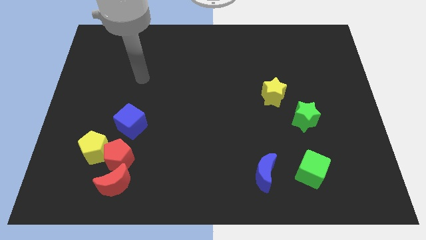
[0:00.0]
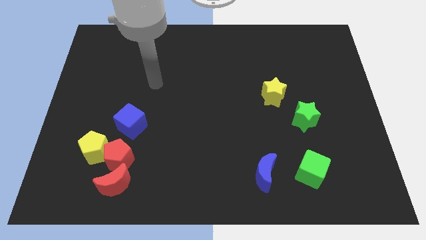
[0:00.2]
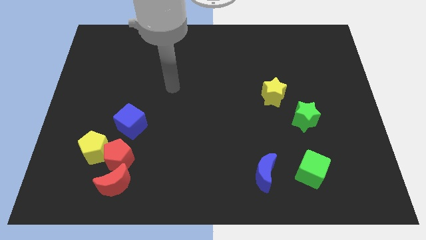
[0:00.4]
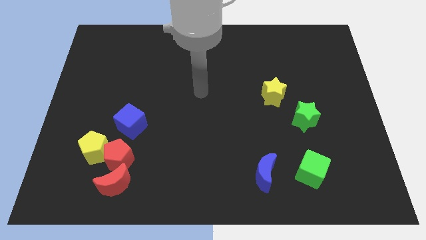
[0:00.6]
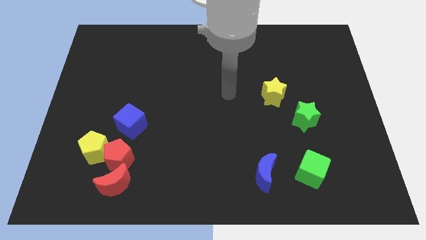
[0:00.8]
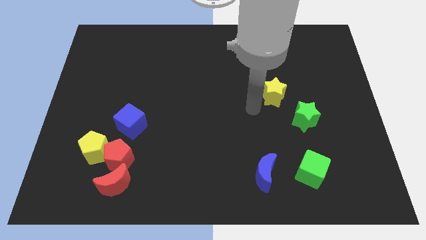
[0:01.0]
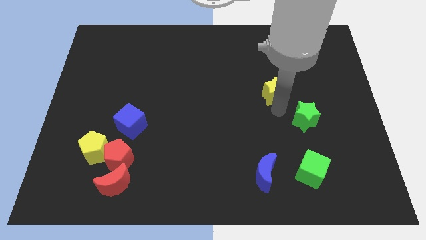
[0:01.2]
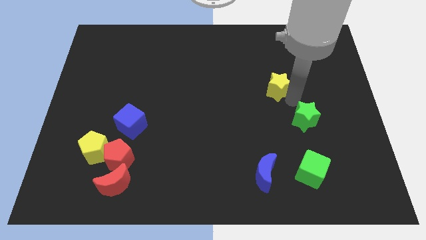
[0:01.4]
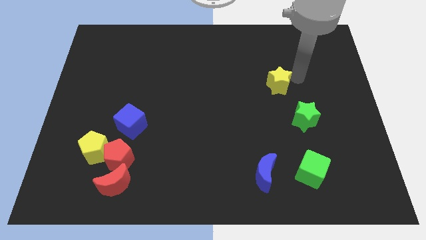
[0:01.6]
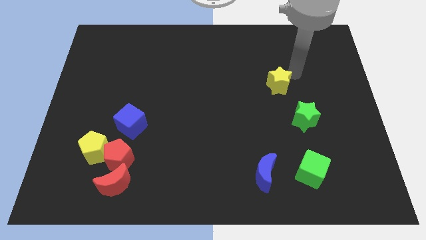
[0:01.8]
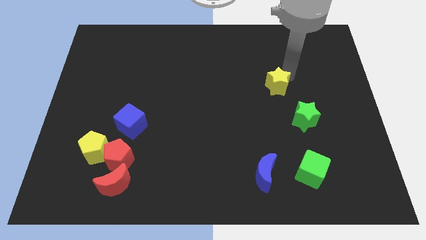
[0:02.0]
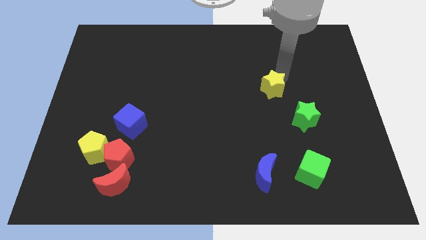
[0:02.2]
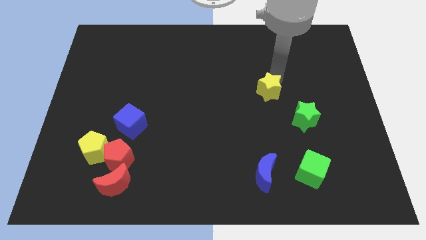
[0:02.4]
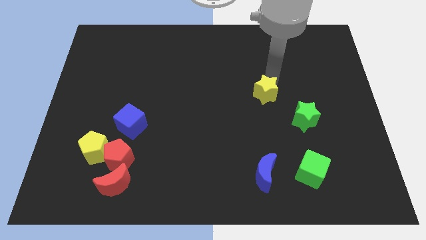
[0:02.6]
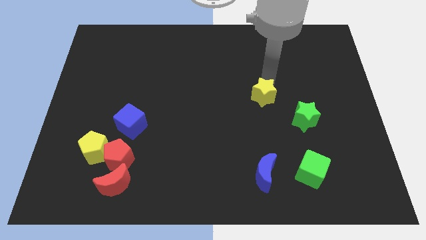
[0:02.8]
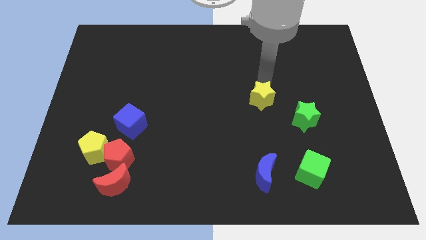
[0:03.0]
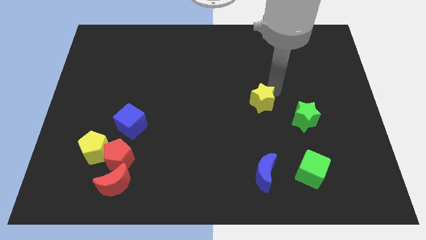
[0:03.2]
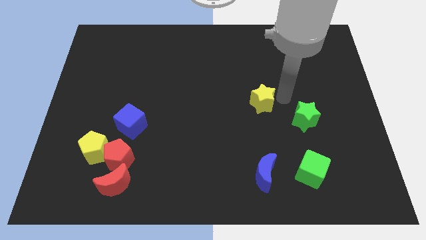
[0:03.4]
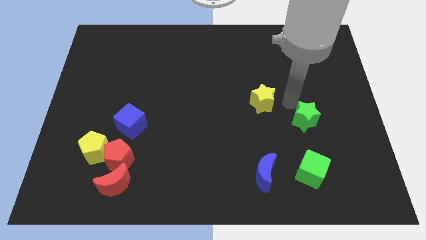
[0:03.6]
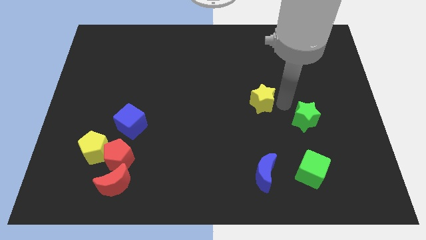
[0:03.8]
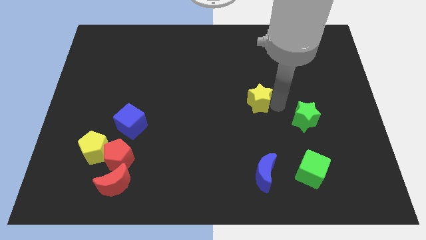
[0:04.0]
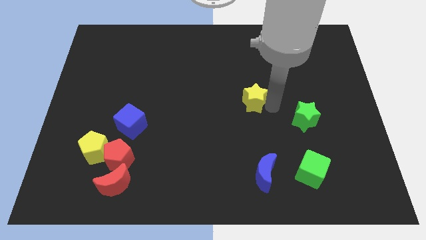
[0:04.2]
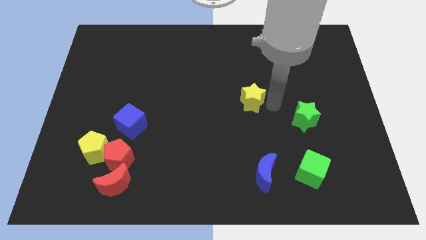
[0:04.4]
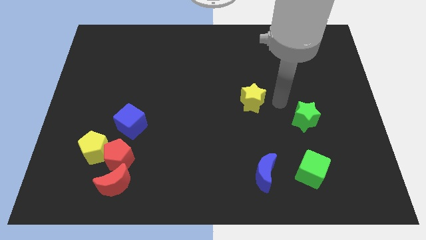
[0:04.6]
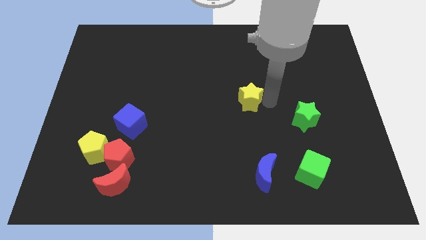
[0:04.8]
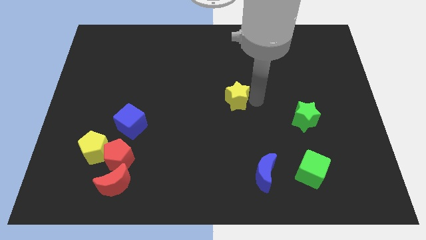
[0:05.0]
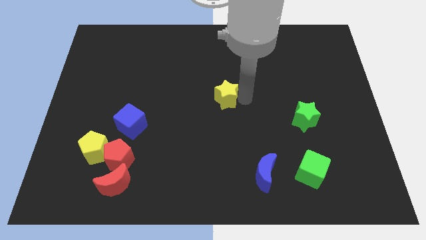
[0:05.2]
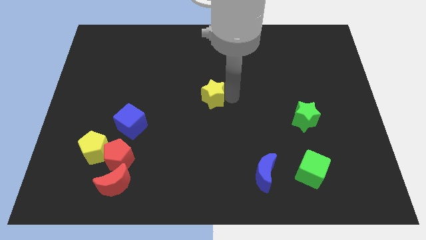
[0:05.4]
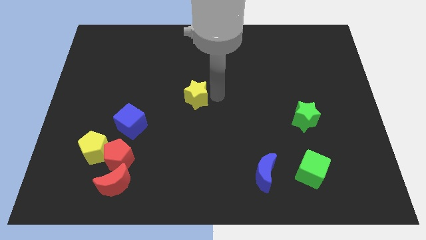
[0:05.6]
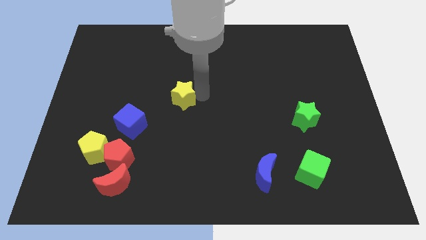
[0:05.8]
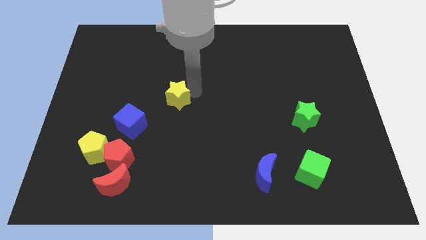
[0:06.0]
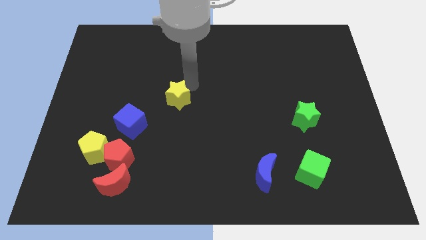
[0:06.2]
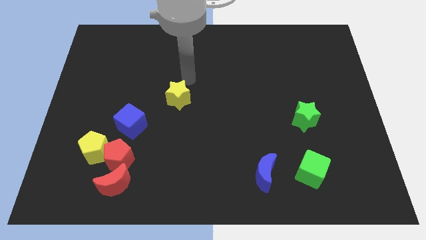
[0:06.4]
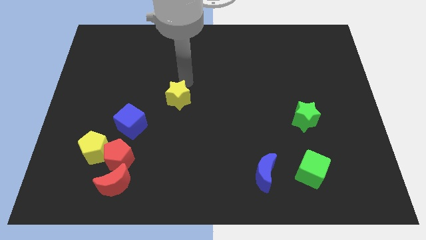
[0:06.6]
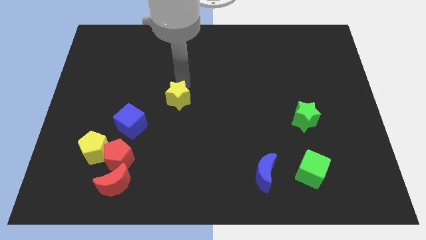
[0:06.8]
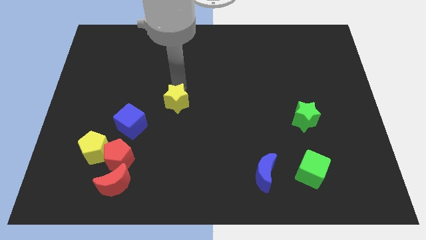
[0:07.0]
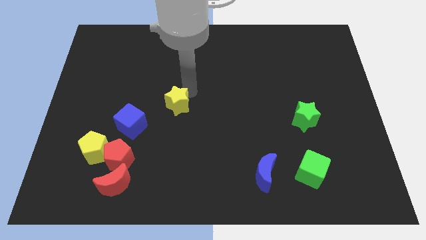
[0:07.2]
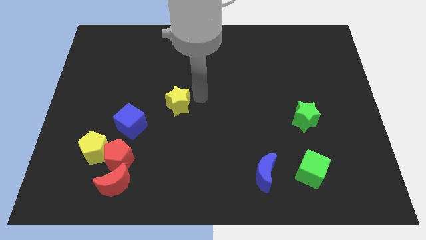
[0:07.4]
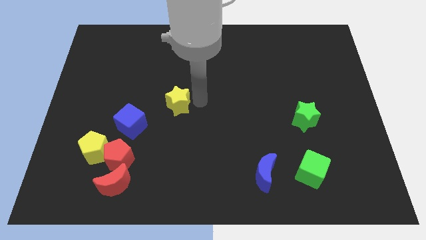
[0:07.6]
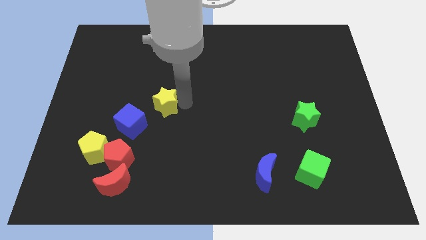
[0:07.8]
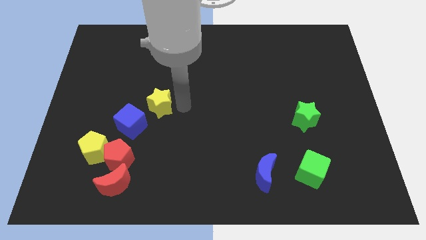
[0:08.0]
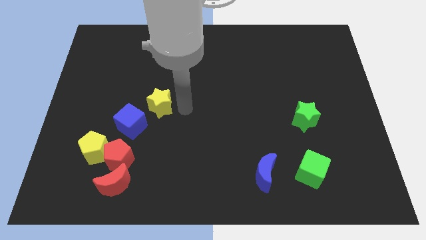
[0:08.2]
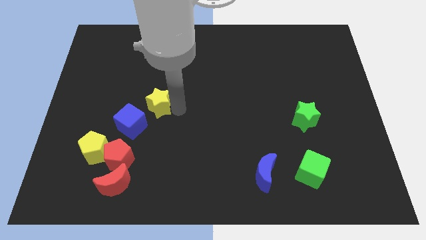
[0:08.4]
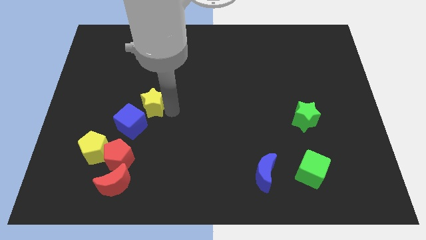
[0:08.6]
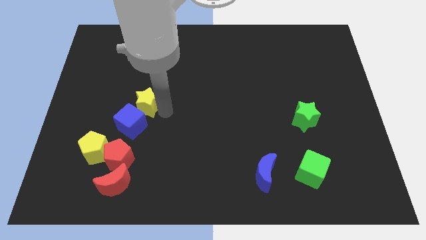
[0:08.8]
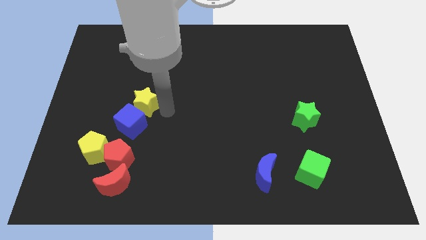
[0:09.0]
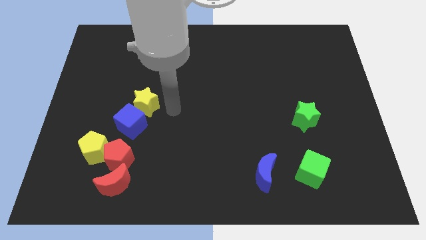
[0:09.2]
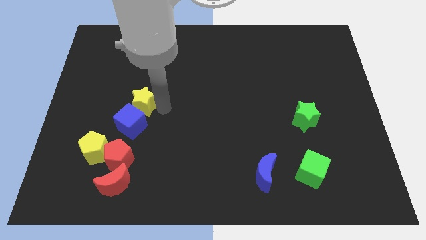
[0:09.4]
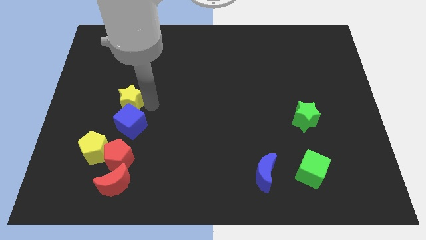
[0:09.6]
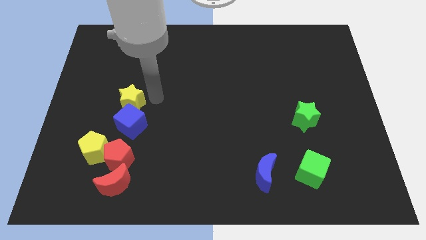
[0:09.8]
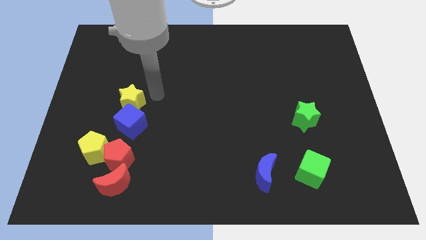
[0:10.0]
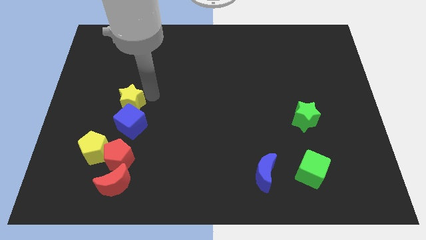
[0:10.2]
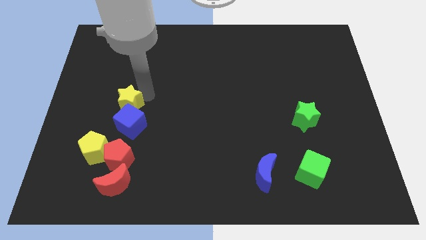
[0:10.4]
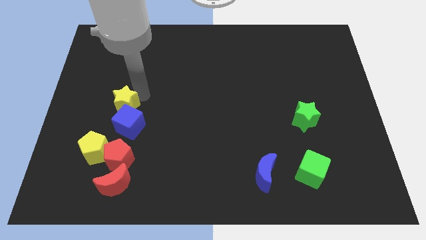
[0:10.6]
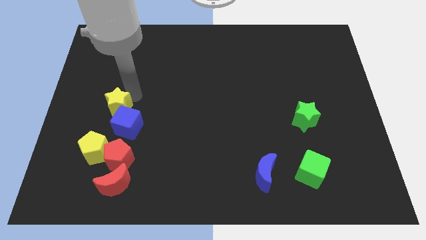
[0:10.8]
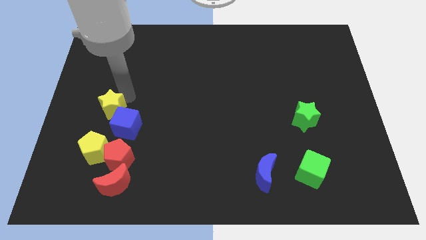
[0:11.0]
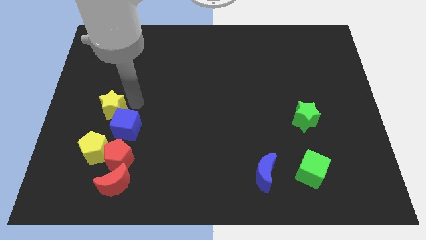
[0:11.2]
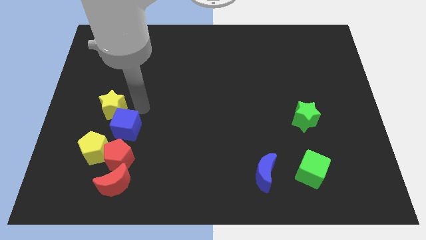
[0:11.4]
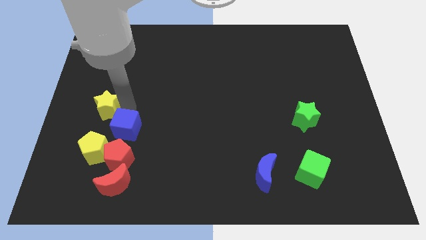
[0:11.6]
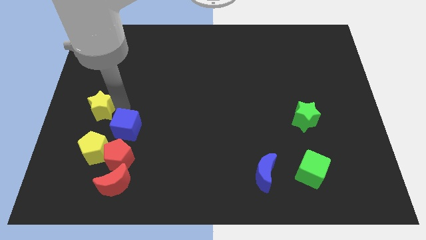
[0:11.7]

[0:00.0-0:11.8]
move the yellow star to the left side

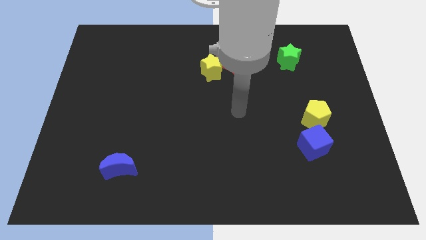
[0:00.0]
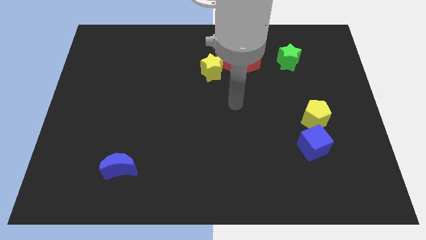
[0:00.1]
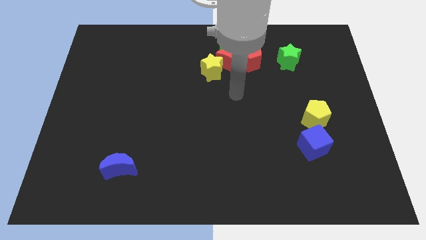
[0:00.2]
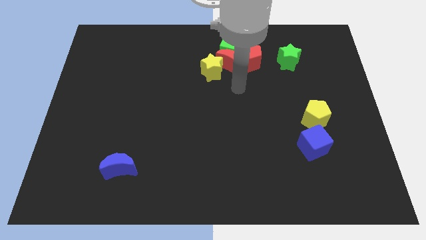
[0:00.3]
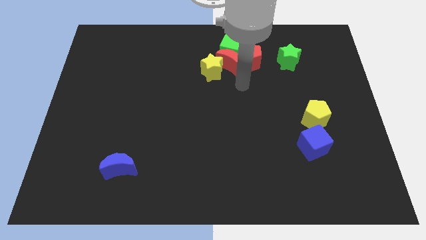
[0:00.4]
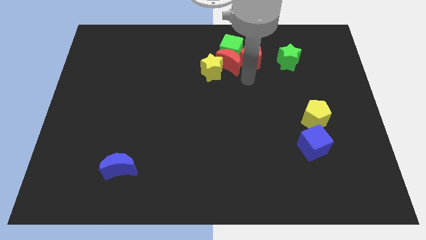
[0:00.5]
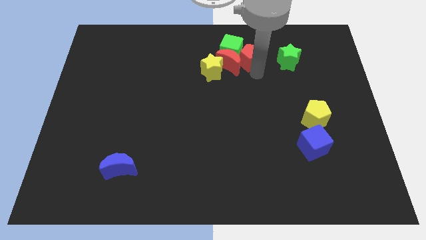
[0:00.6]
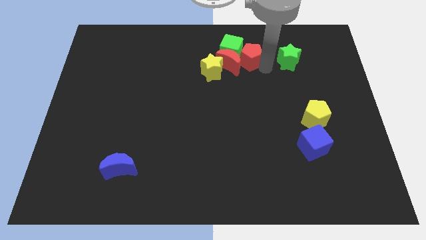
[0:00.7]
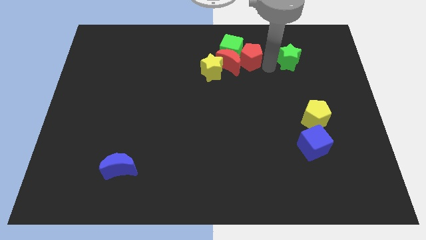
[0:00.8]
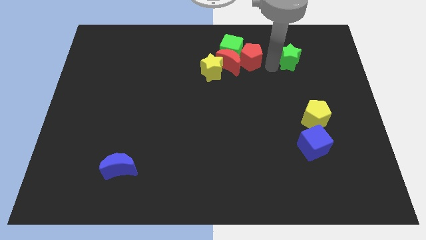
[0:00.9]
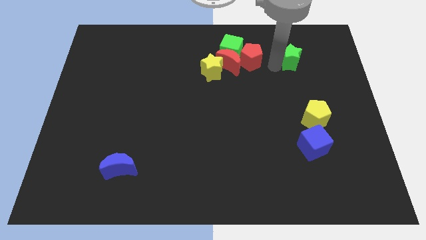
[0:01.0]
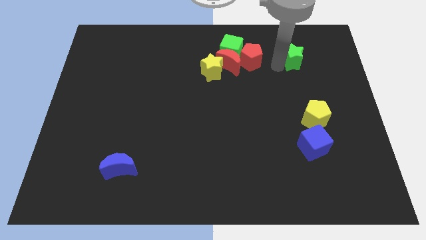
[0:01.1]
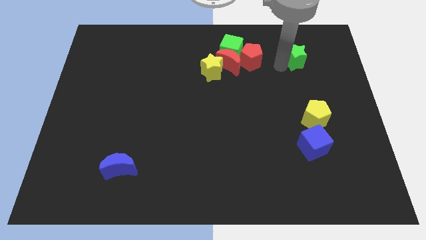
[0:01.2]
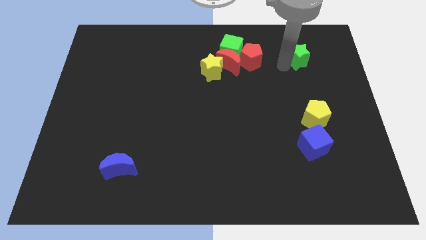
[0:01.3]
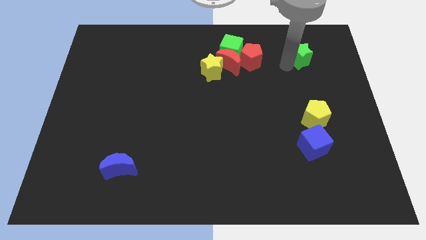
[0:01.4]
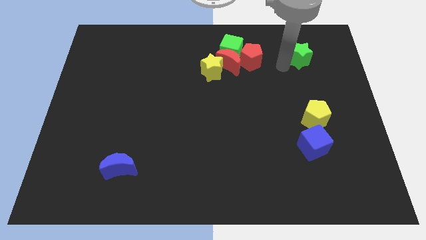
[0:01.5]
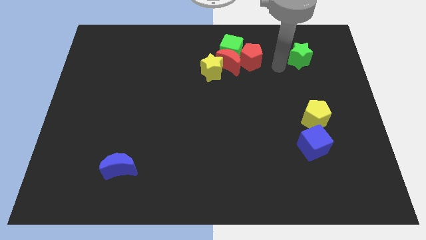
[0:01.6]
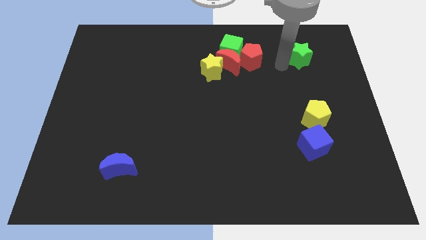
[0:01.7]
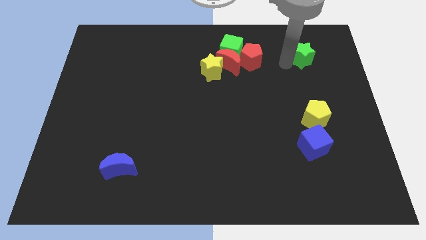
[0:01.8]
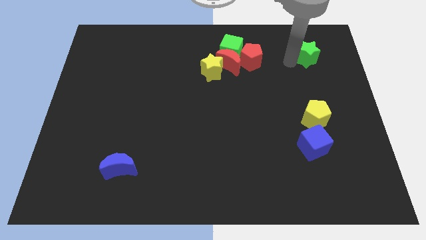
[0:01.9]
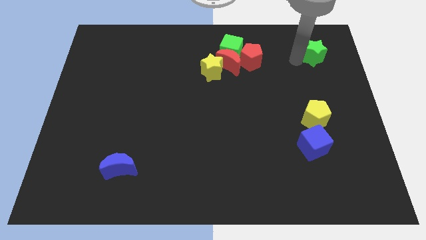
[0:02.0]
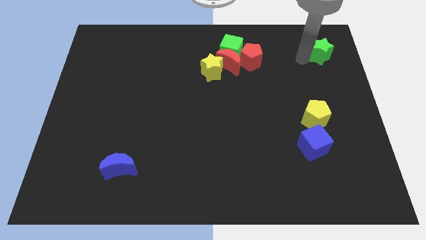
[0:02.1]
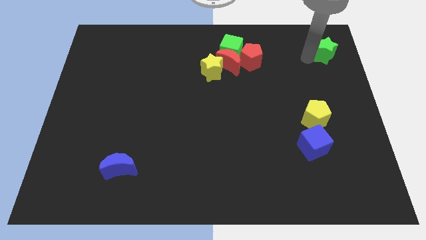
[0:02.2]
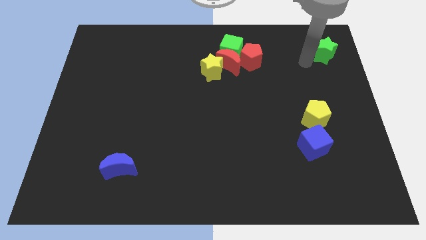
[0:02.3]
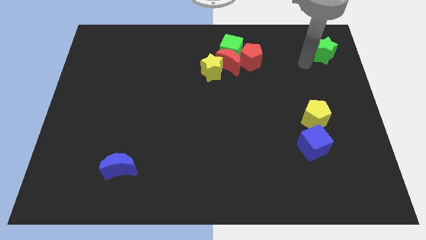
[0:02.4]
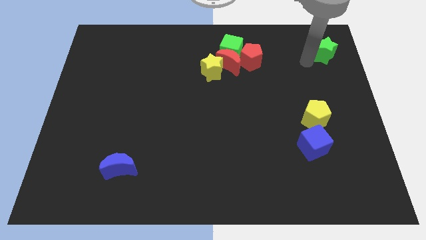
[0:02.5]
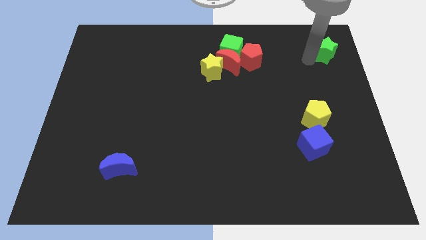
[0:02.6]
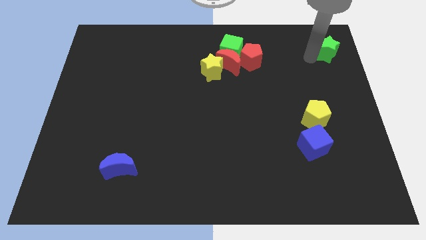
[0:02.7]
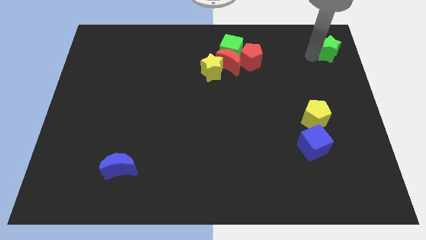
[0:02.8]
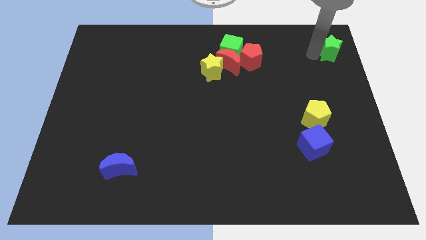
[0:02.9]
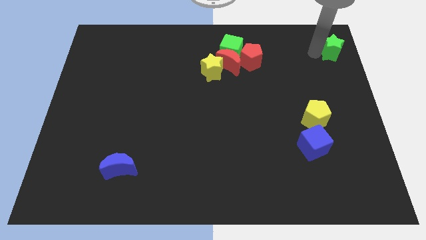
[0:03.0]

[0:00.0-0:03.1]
slide the green star to the top right corner
